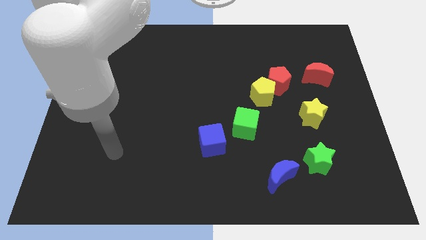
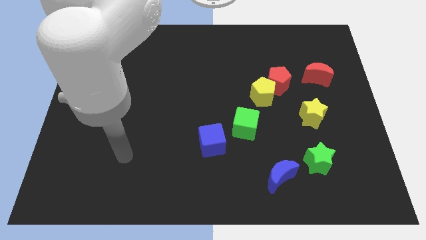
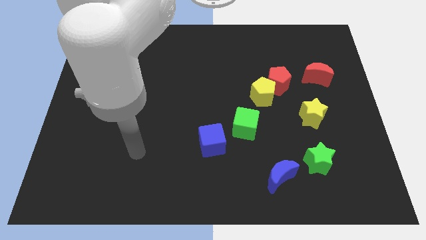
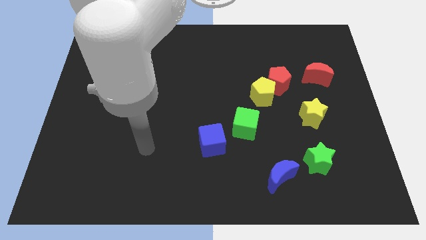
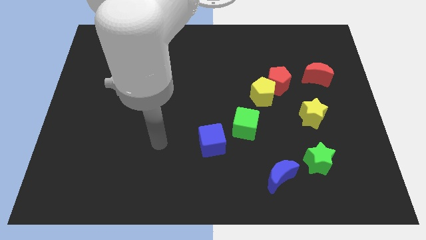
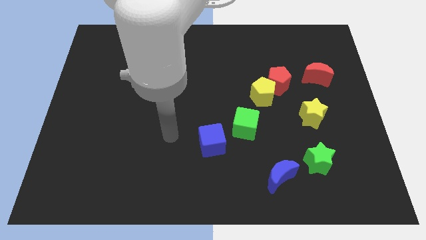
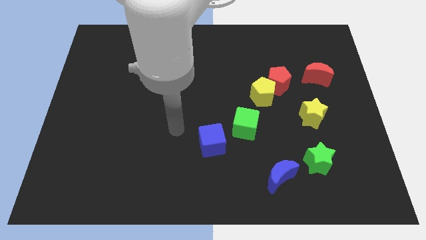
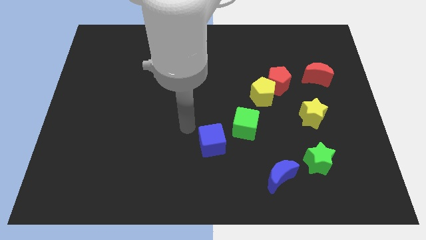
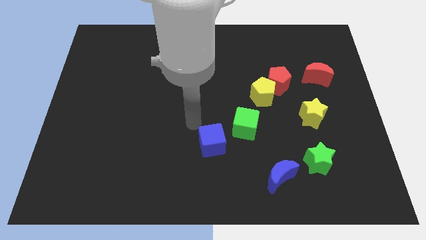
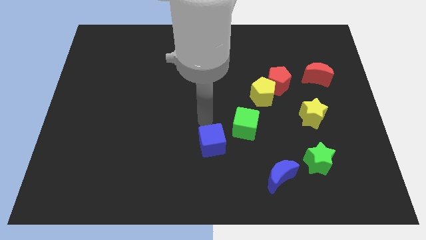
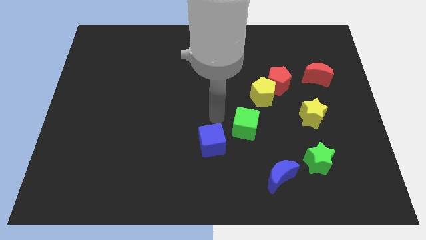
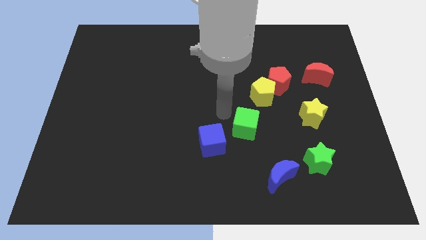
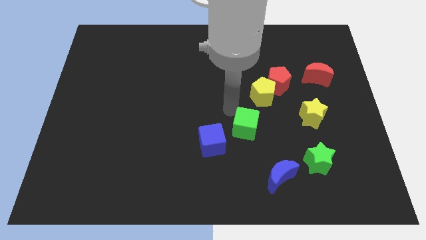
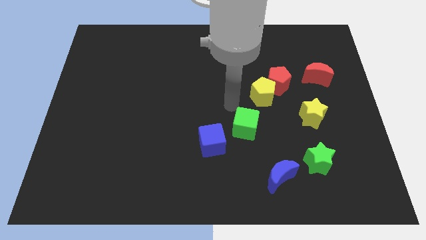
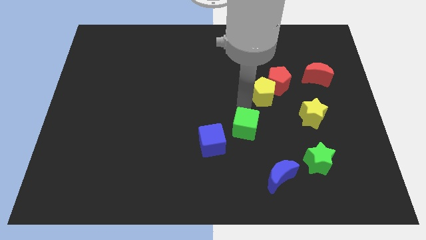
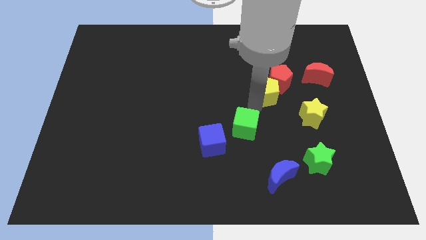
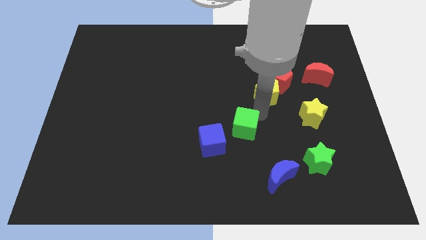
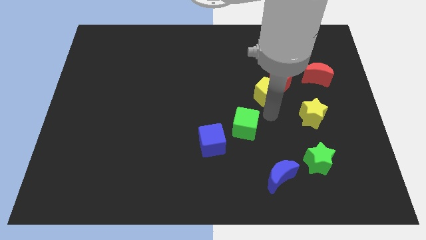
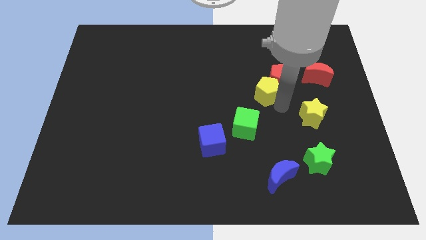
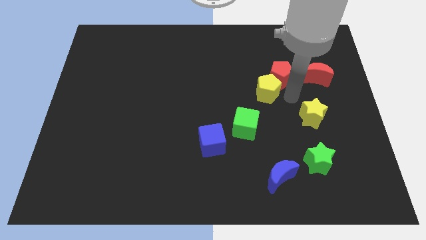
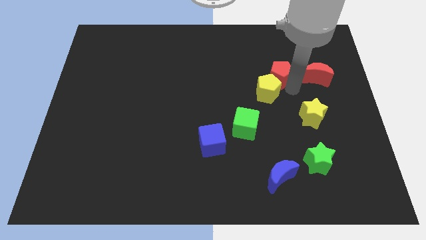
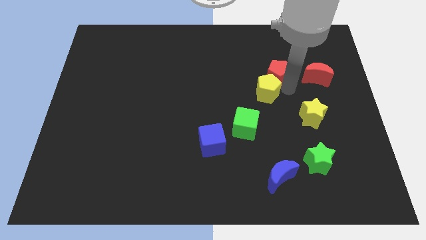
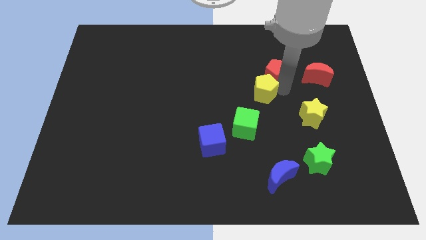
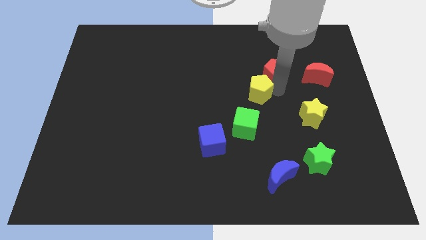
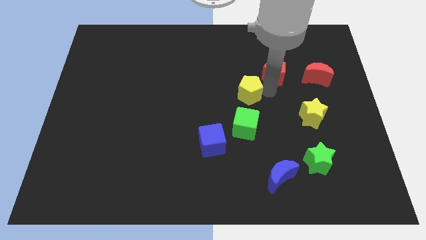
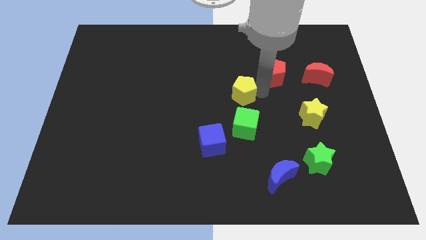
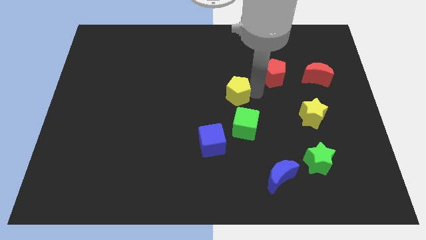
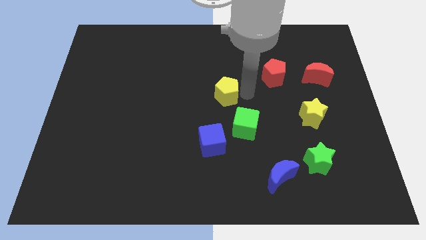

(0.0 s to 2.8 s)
slightly move the yellow pentagon left

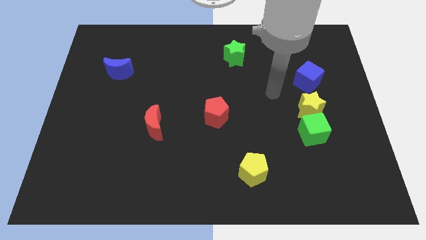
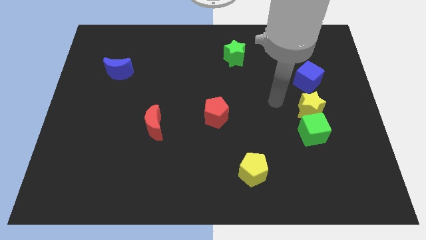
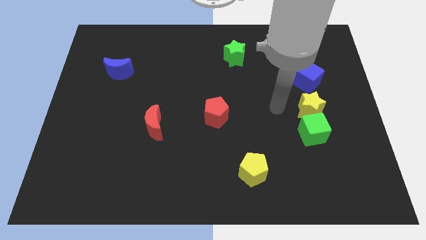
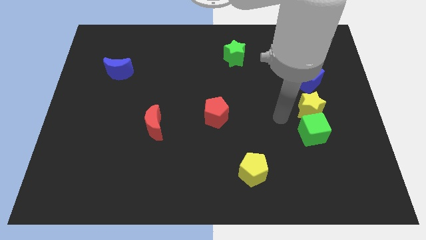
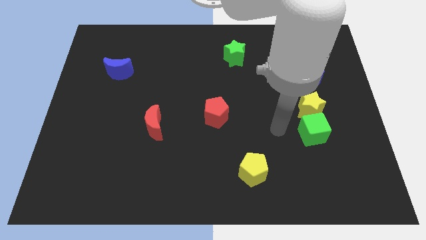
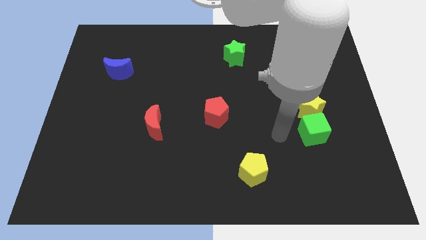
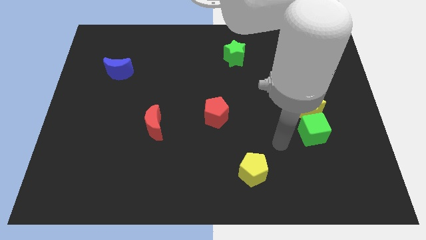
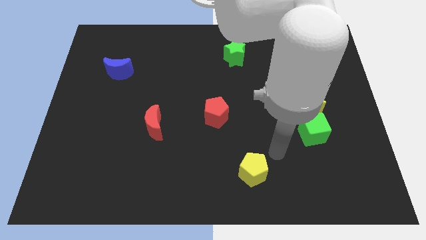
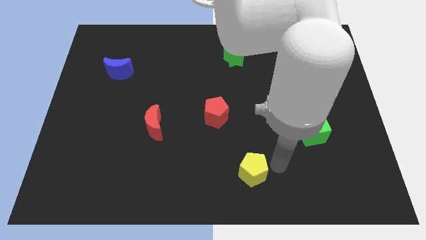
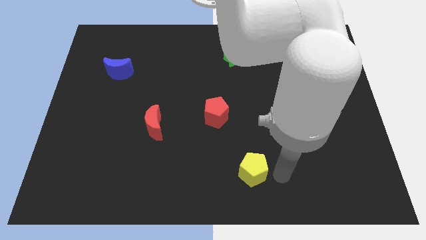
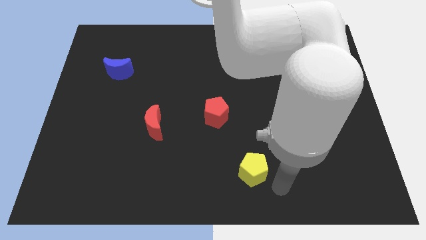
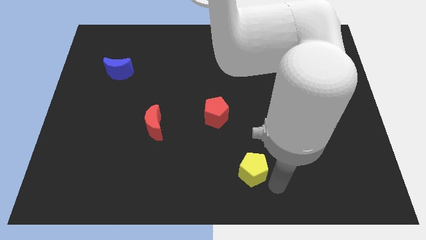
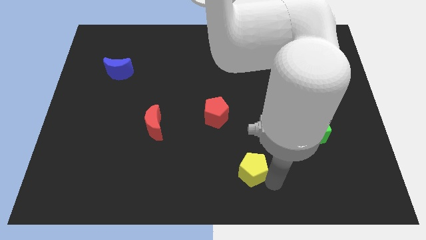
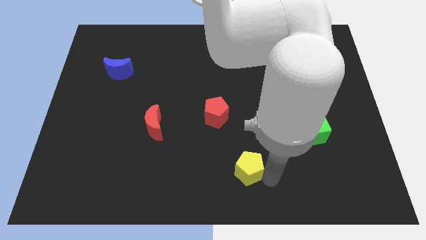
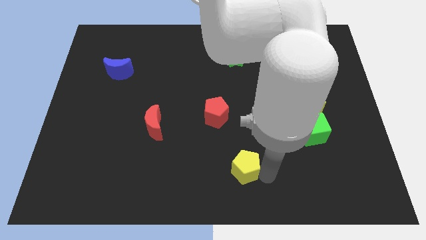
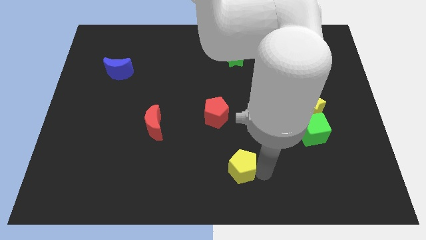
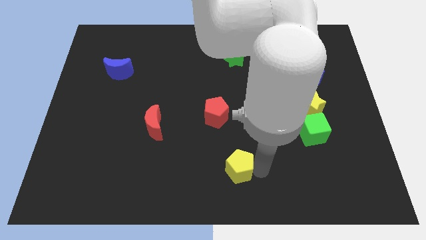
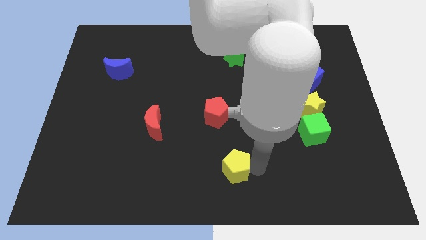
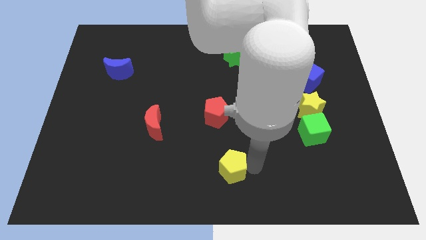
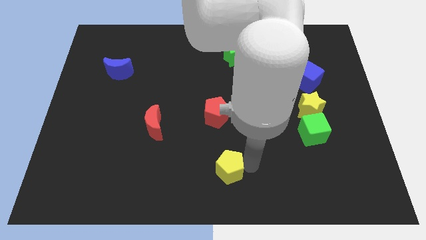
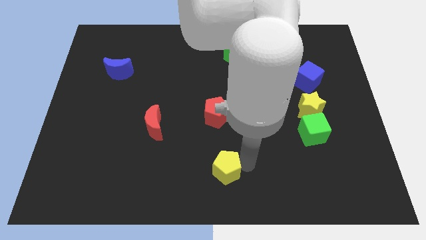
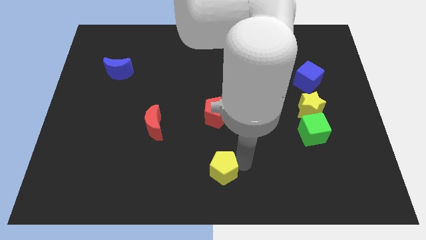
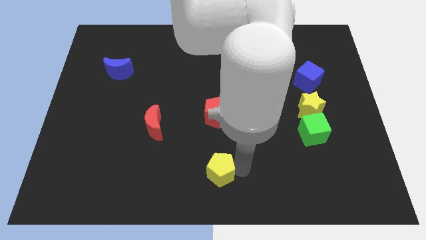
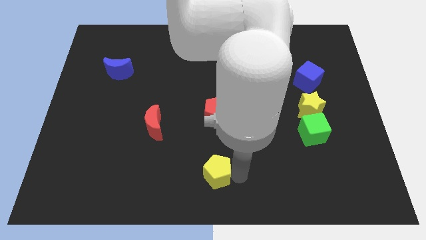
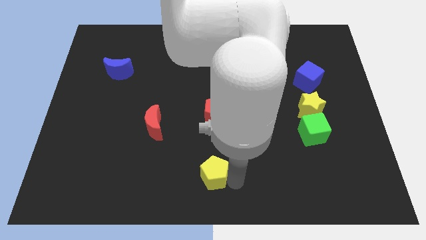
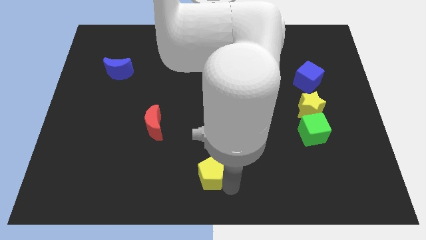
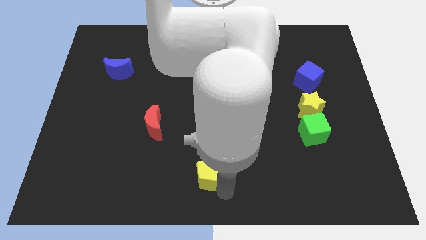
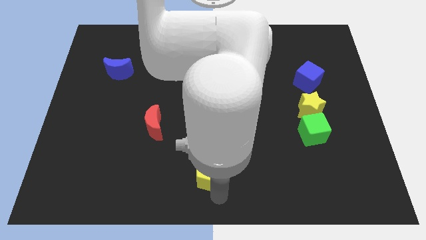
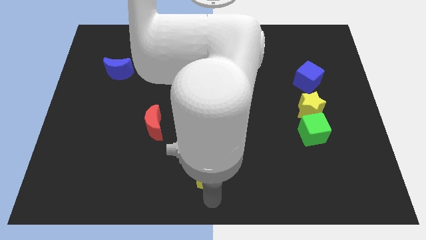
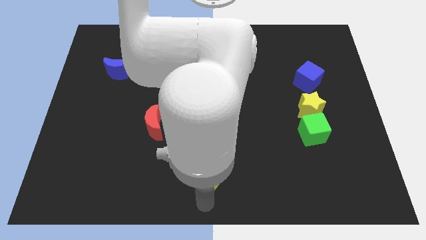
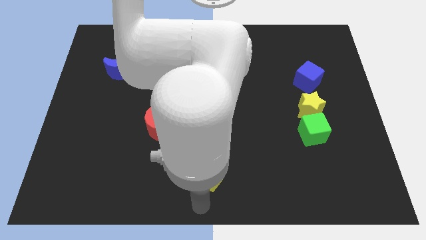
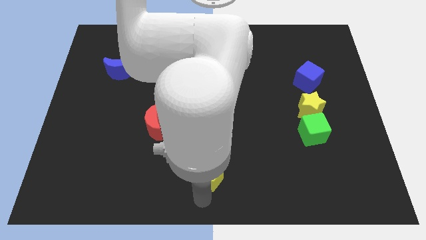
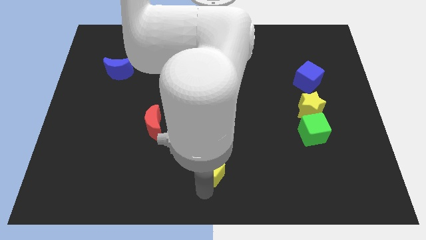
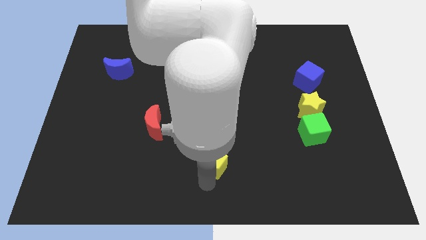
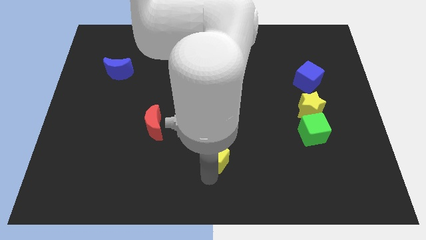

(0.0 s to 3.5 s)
slide the yellow pentagon upwards and then left a little

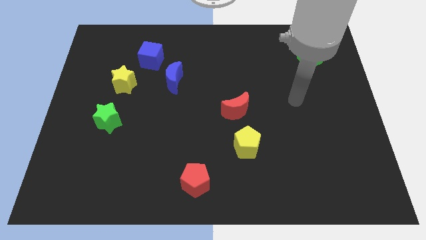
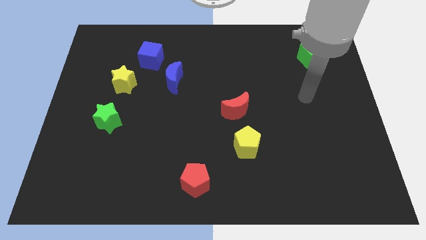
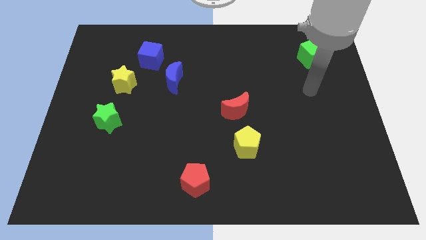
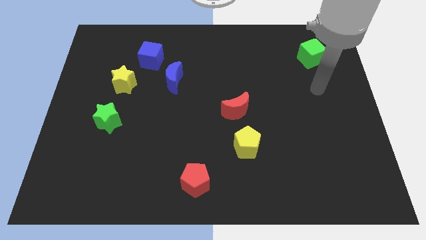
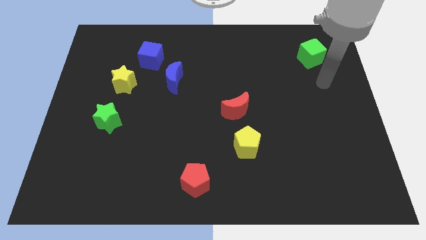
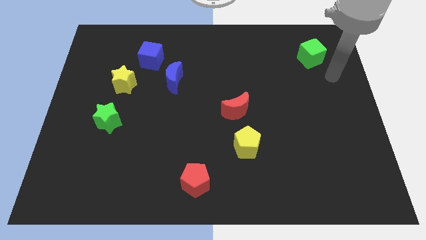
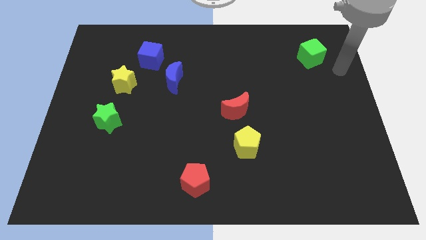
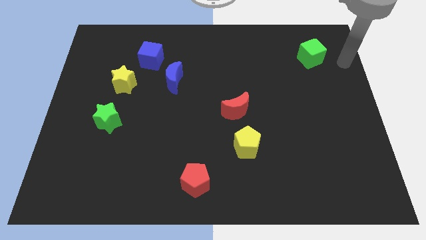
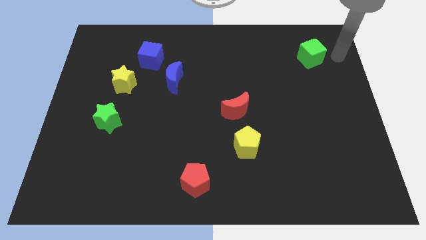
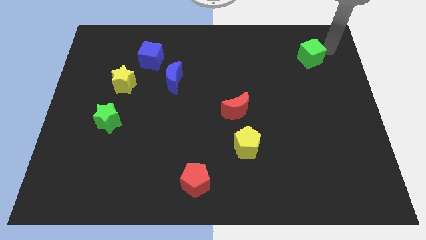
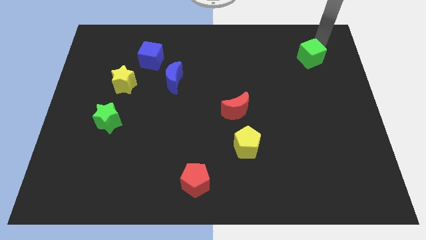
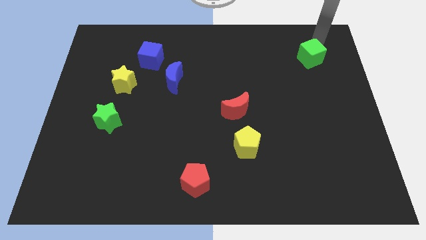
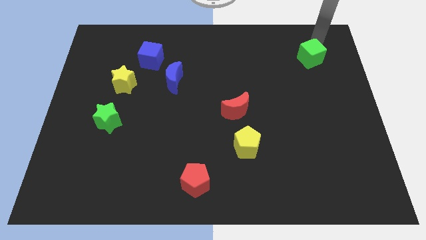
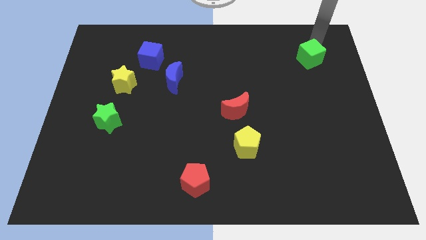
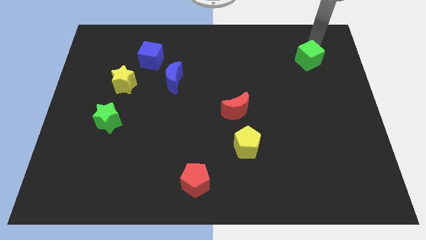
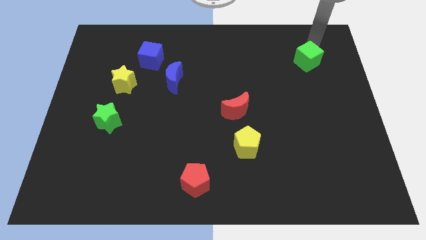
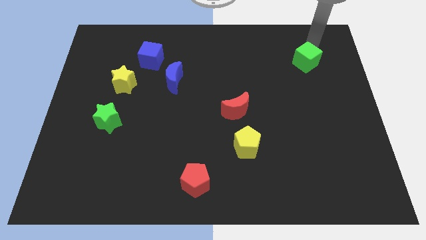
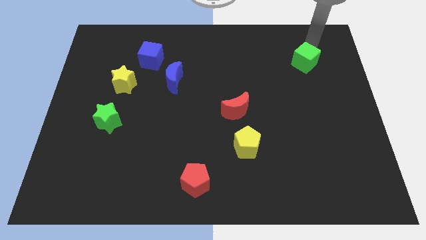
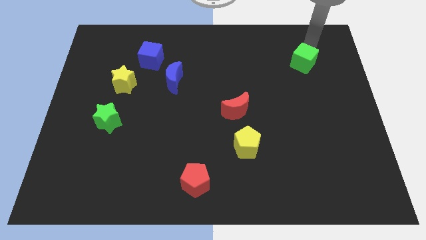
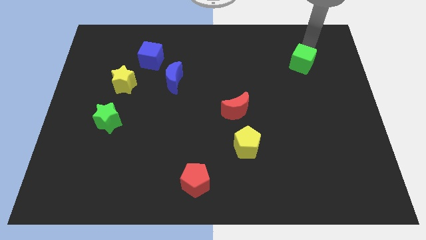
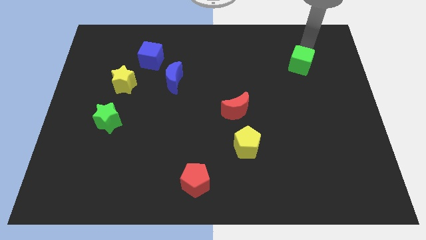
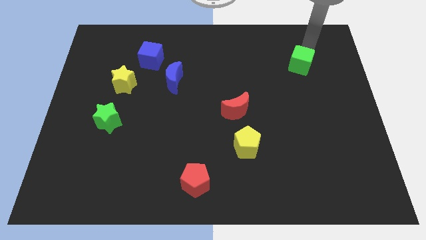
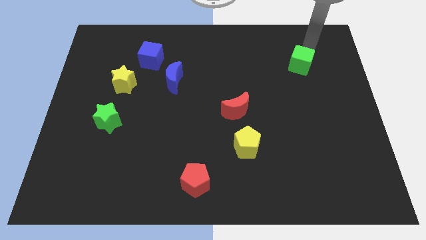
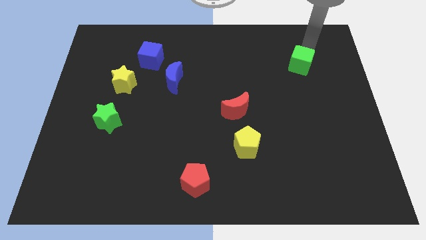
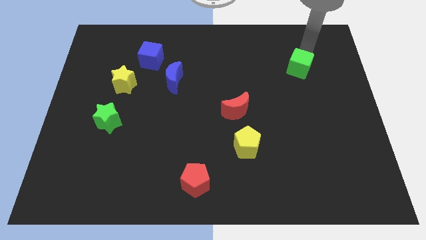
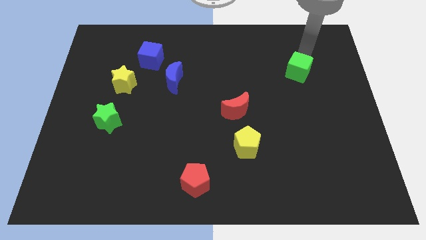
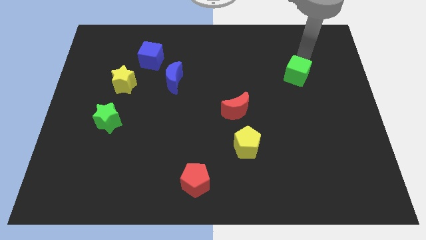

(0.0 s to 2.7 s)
slightly push the green cube down and left diagonally
